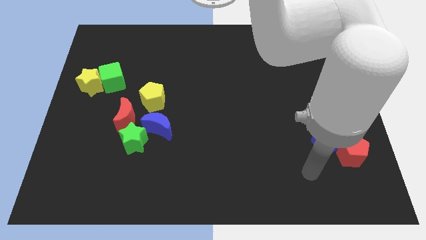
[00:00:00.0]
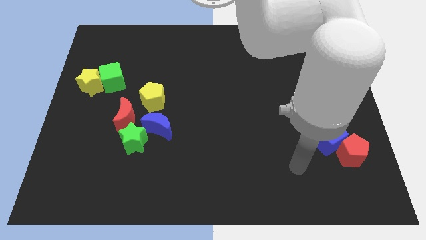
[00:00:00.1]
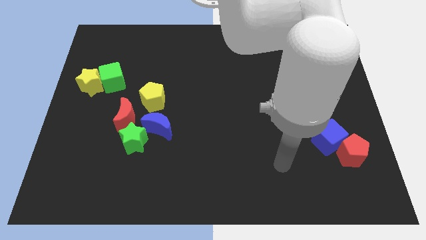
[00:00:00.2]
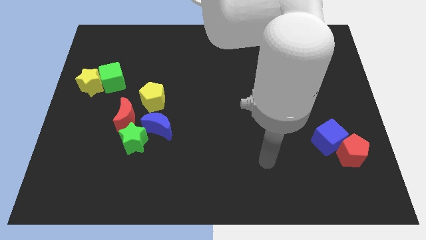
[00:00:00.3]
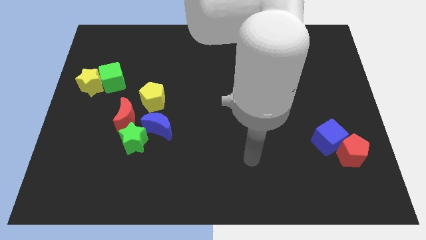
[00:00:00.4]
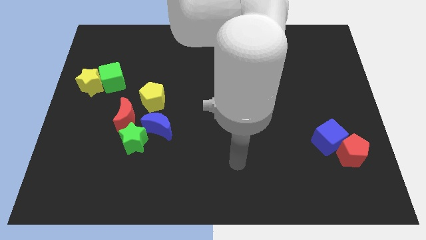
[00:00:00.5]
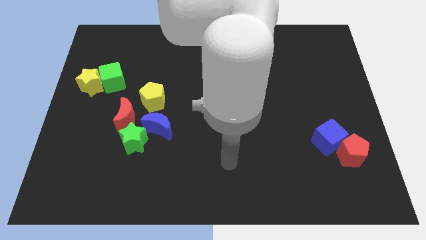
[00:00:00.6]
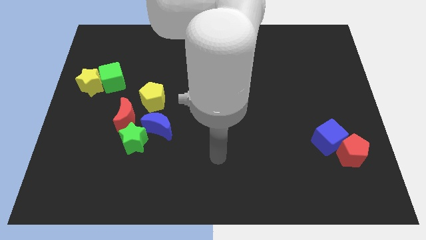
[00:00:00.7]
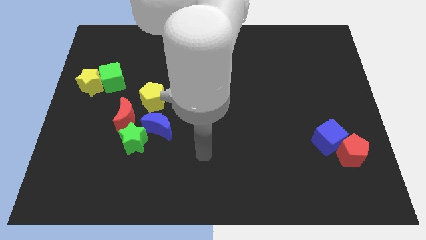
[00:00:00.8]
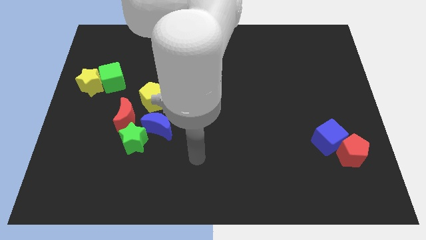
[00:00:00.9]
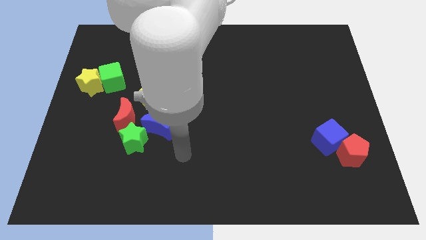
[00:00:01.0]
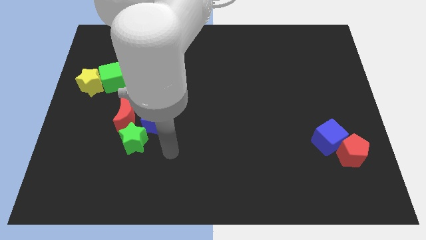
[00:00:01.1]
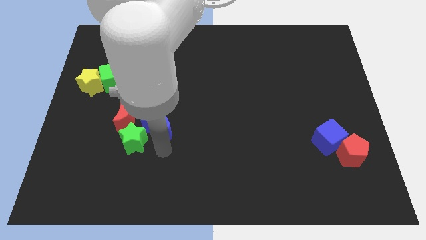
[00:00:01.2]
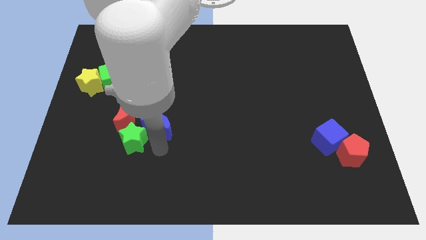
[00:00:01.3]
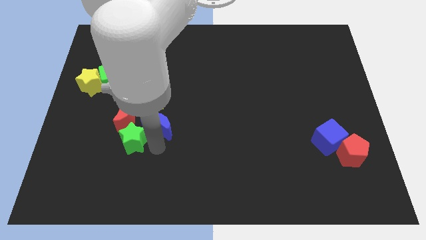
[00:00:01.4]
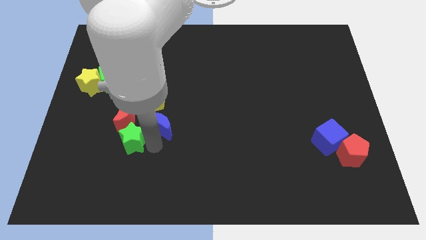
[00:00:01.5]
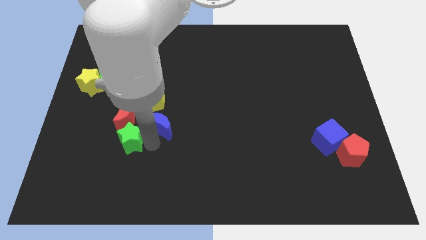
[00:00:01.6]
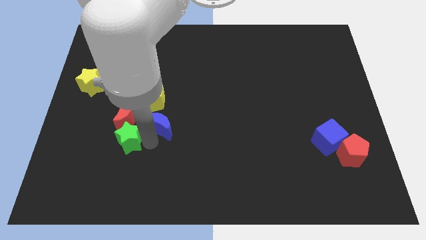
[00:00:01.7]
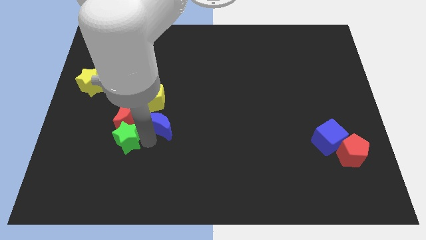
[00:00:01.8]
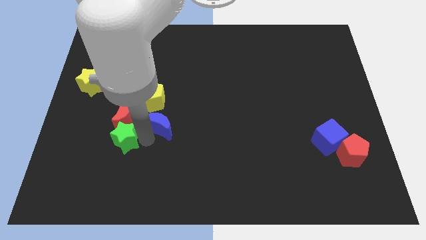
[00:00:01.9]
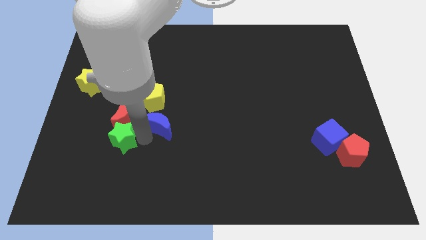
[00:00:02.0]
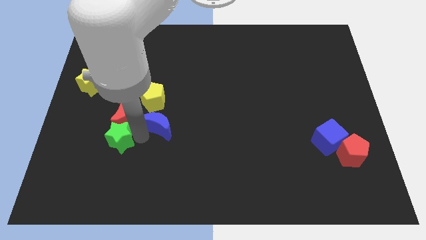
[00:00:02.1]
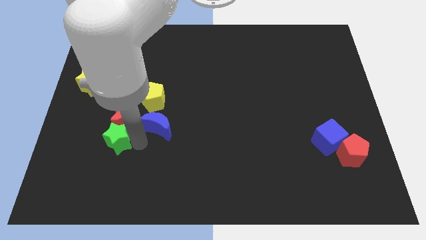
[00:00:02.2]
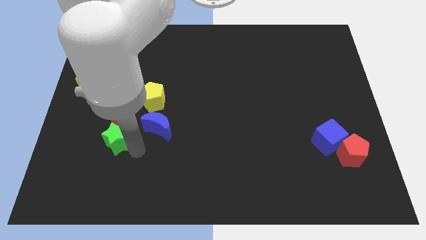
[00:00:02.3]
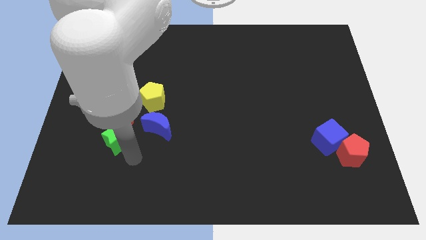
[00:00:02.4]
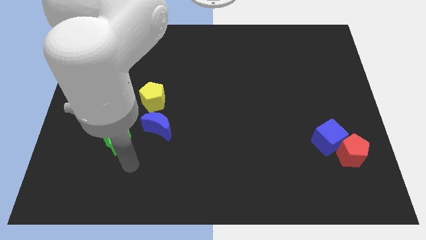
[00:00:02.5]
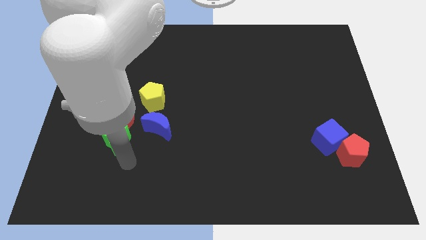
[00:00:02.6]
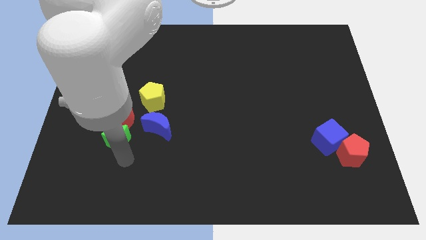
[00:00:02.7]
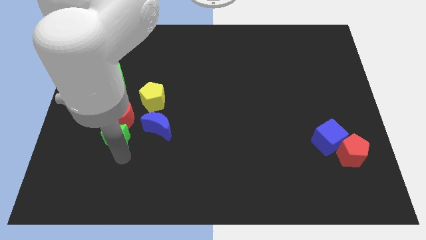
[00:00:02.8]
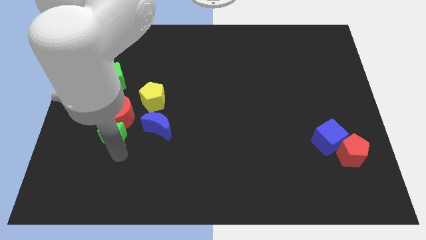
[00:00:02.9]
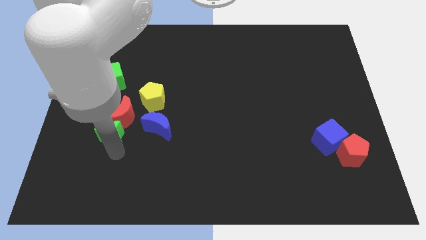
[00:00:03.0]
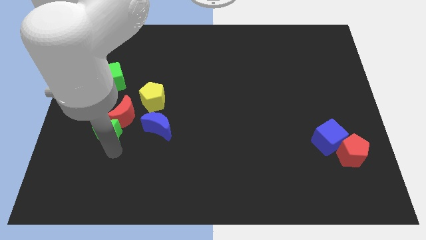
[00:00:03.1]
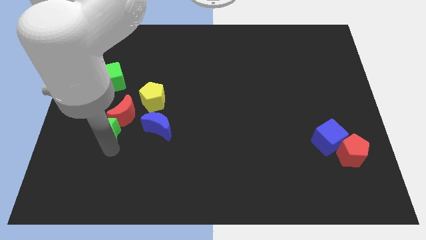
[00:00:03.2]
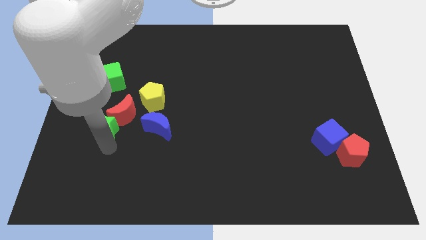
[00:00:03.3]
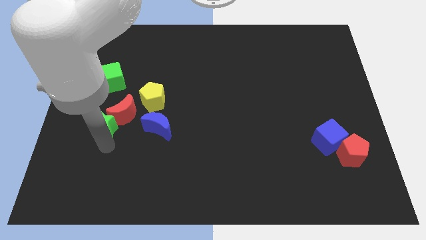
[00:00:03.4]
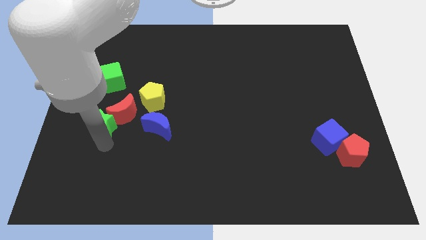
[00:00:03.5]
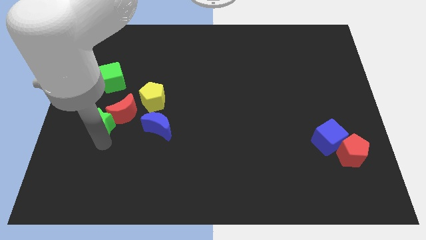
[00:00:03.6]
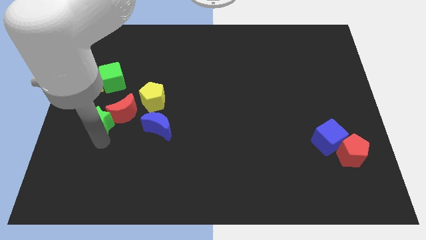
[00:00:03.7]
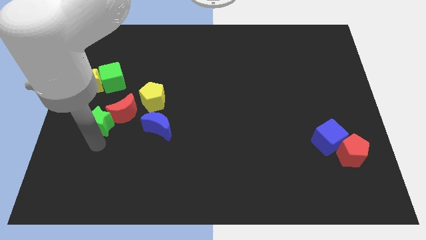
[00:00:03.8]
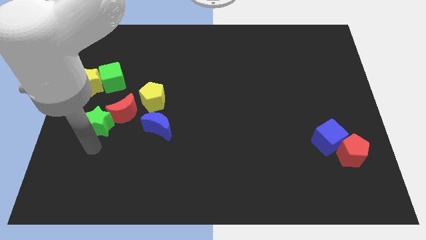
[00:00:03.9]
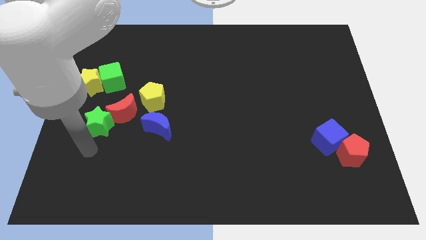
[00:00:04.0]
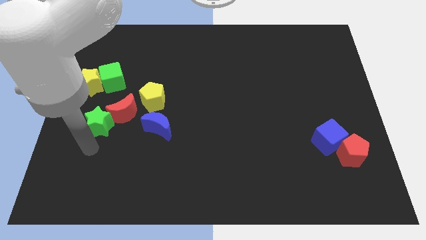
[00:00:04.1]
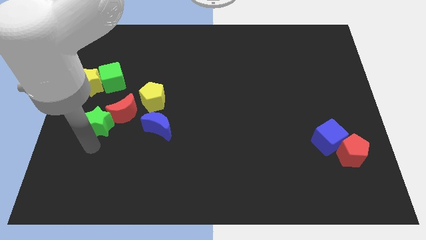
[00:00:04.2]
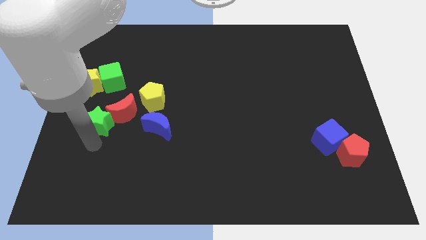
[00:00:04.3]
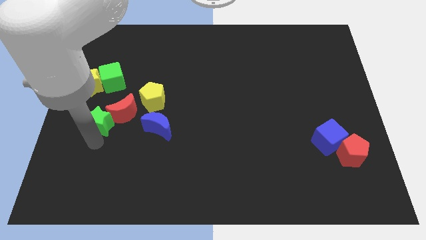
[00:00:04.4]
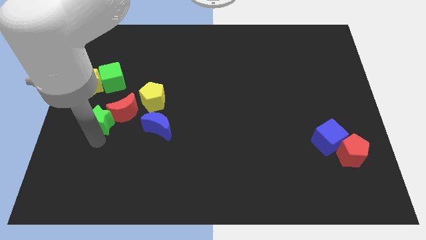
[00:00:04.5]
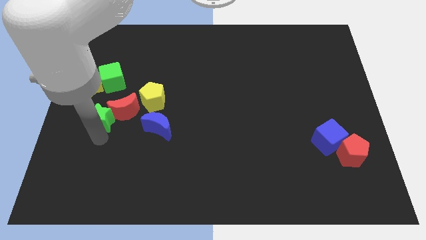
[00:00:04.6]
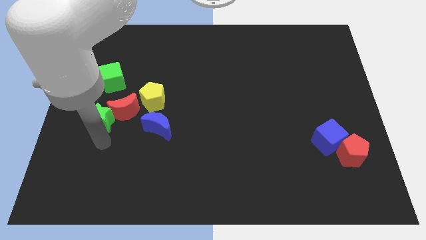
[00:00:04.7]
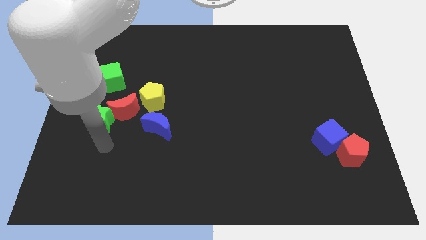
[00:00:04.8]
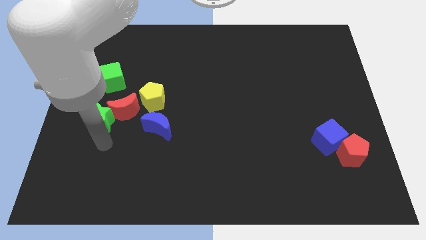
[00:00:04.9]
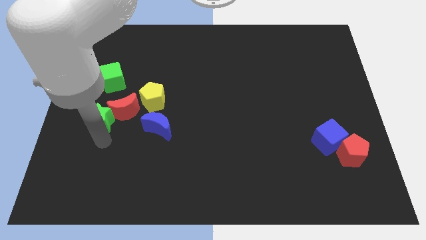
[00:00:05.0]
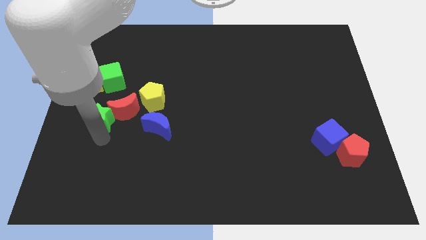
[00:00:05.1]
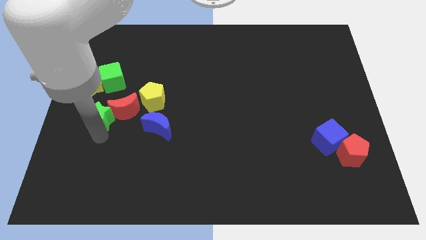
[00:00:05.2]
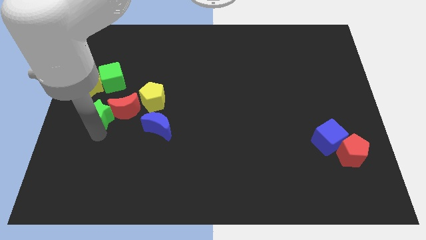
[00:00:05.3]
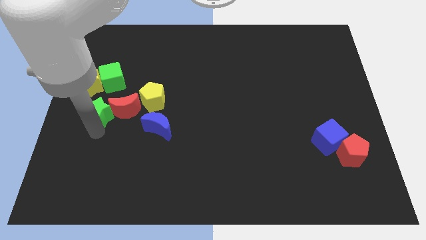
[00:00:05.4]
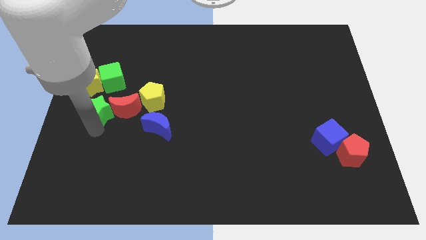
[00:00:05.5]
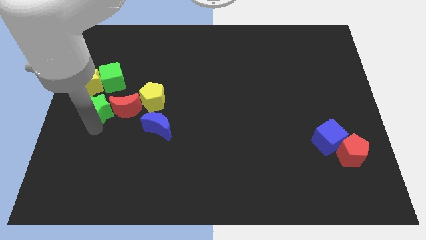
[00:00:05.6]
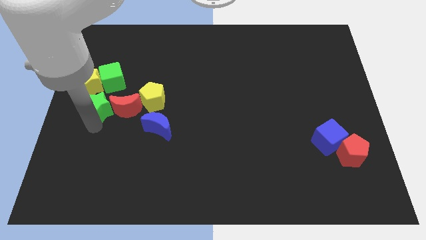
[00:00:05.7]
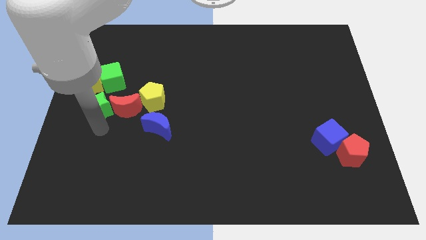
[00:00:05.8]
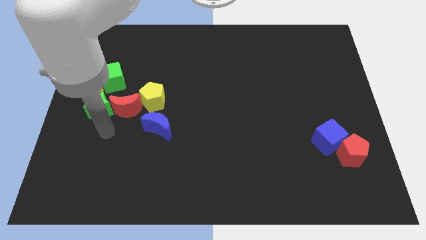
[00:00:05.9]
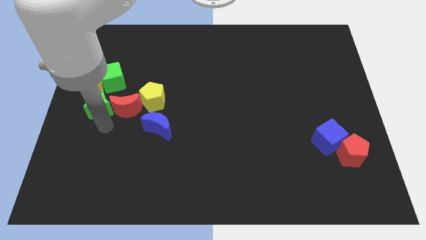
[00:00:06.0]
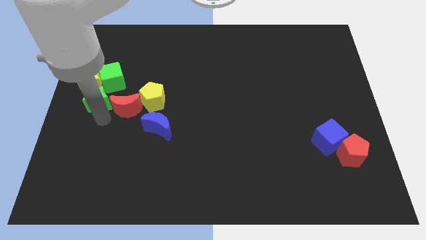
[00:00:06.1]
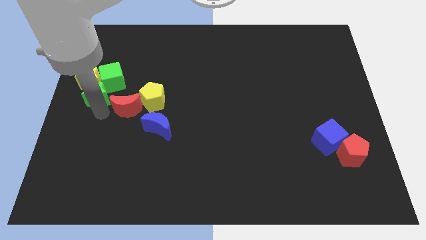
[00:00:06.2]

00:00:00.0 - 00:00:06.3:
push the green star to the yellow star
